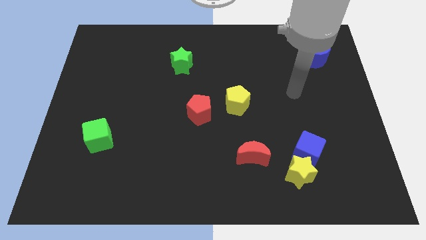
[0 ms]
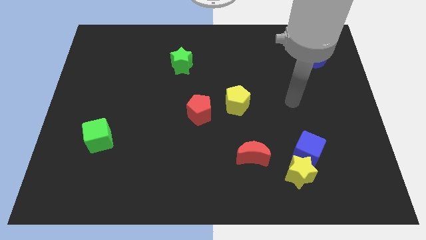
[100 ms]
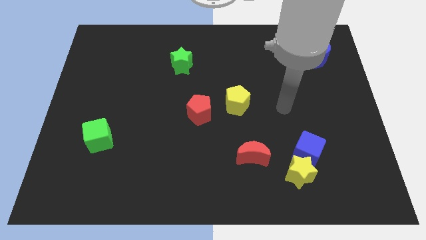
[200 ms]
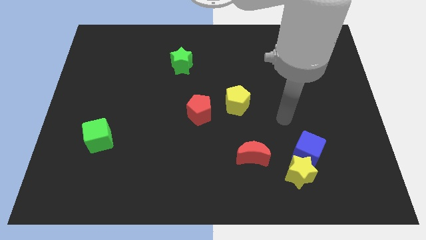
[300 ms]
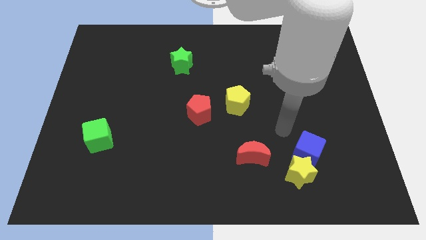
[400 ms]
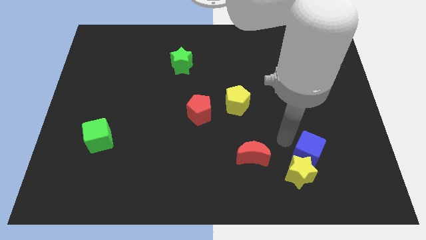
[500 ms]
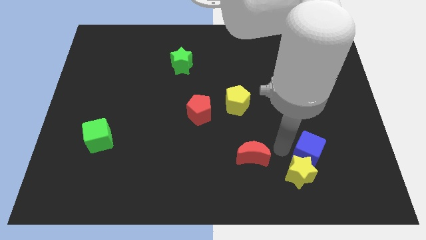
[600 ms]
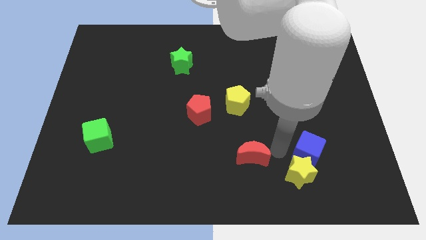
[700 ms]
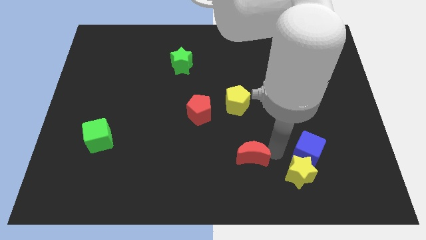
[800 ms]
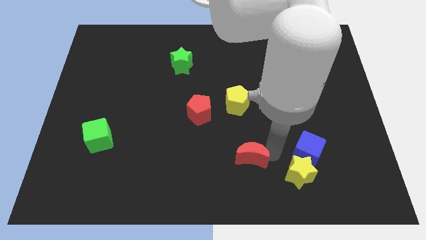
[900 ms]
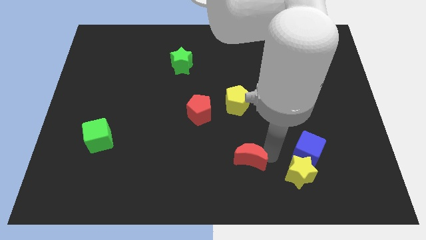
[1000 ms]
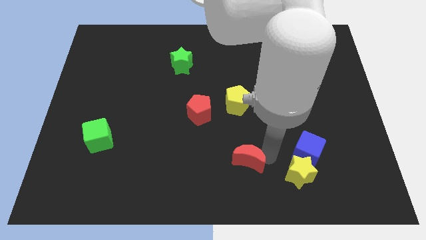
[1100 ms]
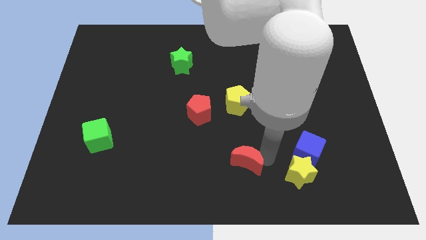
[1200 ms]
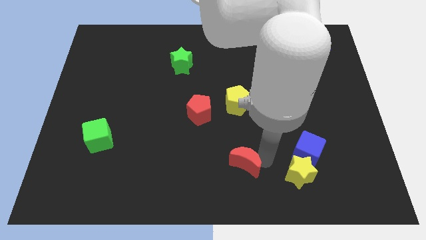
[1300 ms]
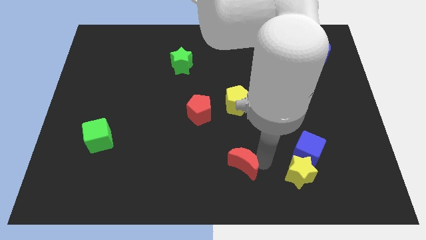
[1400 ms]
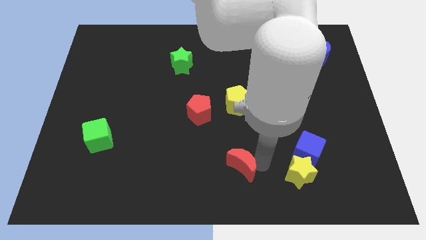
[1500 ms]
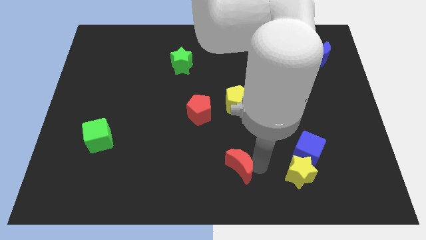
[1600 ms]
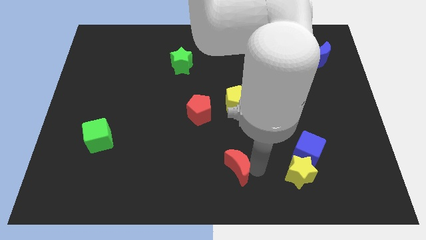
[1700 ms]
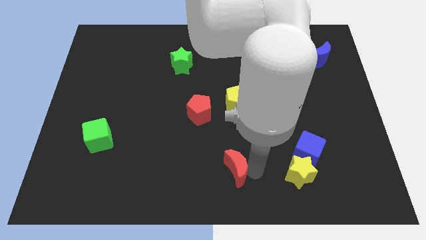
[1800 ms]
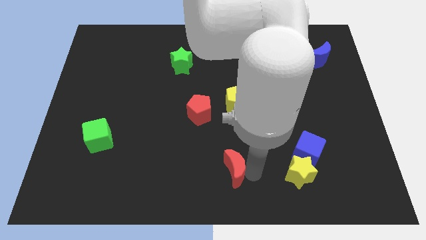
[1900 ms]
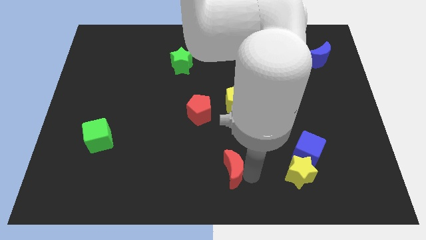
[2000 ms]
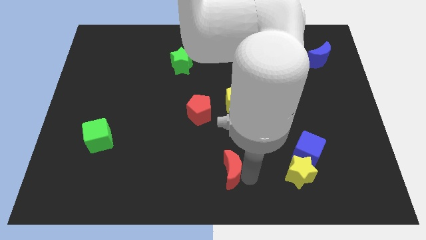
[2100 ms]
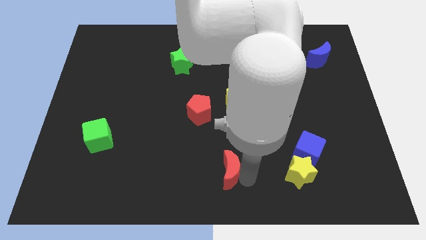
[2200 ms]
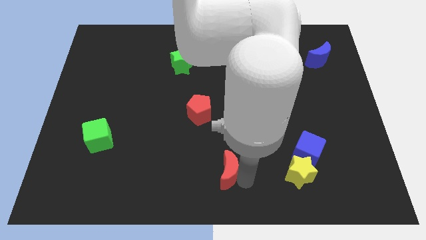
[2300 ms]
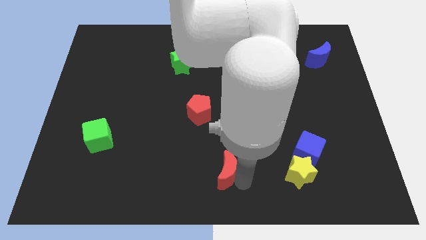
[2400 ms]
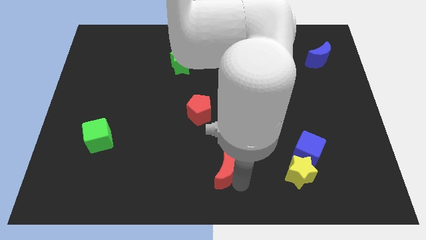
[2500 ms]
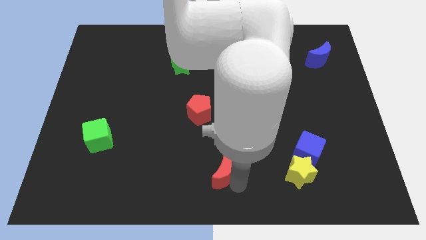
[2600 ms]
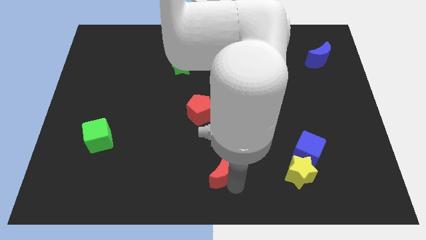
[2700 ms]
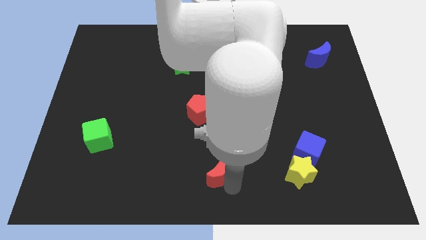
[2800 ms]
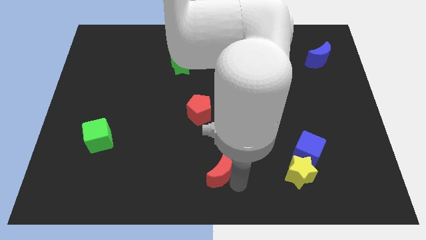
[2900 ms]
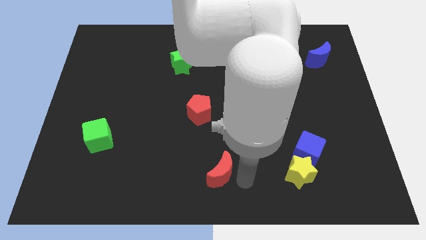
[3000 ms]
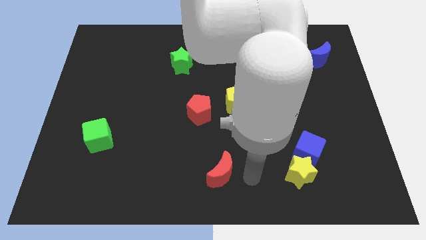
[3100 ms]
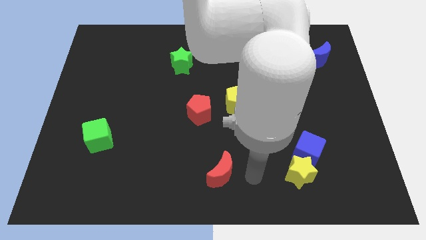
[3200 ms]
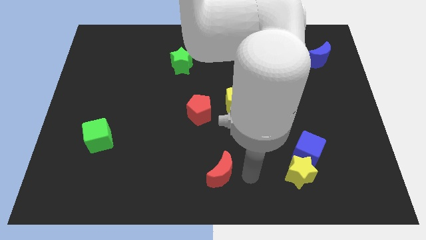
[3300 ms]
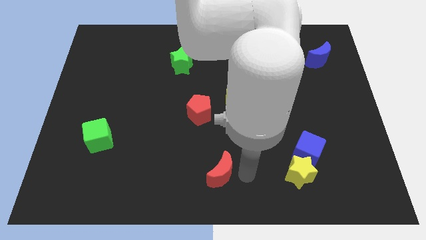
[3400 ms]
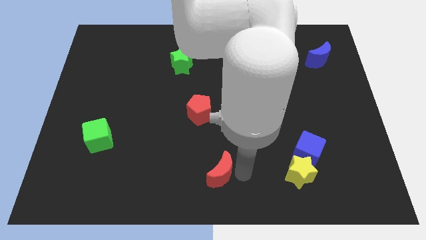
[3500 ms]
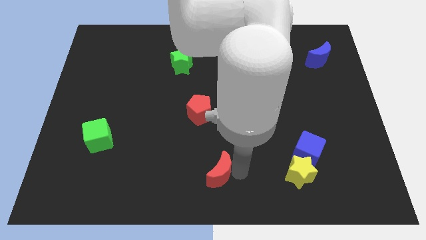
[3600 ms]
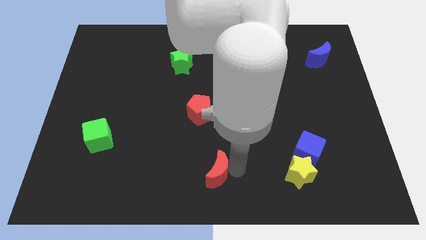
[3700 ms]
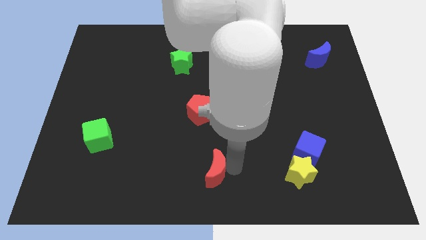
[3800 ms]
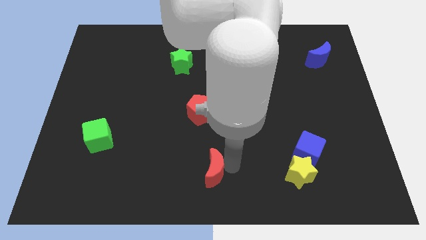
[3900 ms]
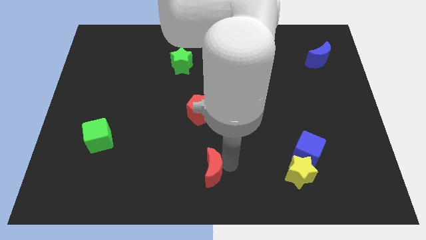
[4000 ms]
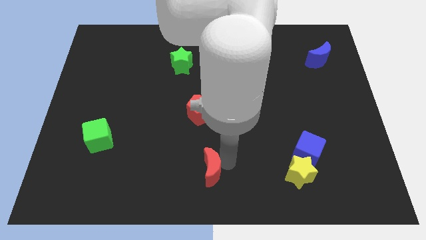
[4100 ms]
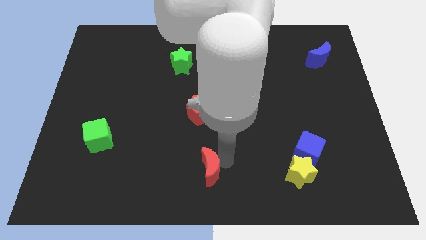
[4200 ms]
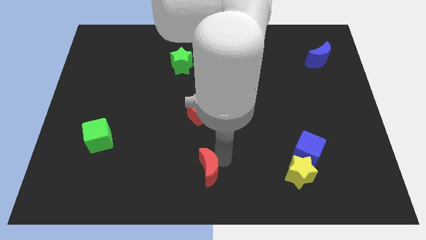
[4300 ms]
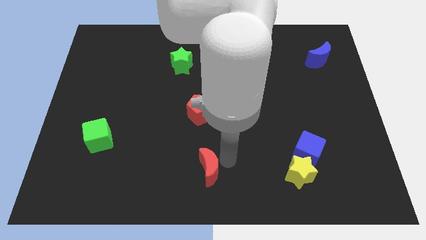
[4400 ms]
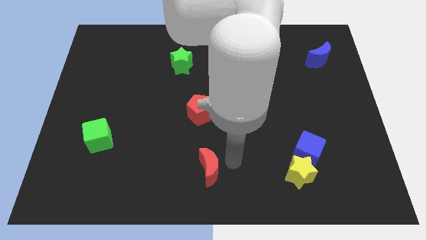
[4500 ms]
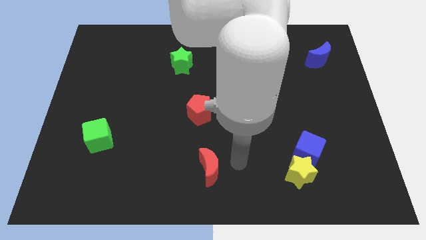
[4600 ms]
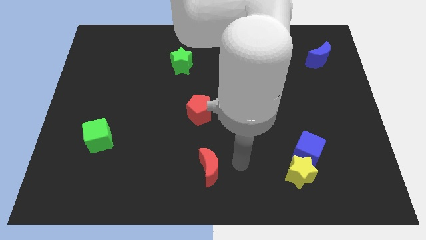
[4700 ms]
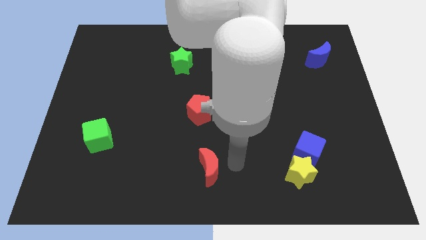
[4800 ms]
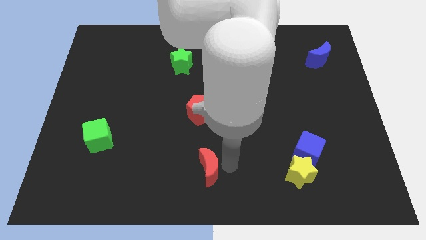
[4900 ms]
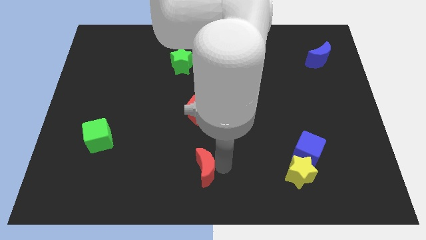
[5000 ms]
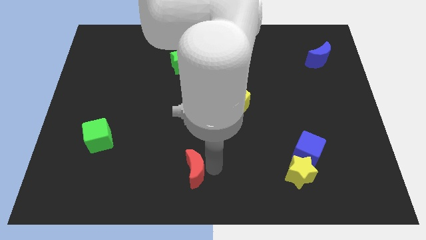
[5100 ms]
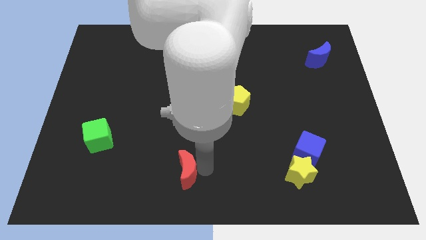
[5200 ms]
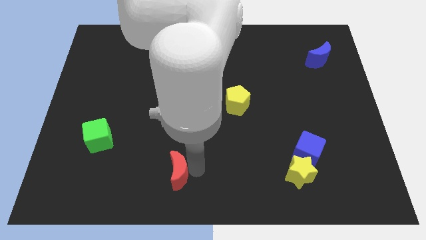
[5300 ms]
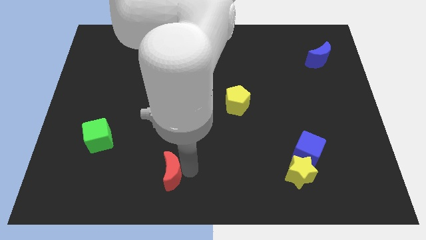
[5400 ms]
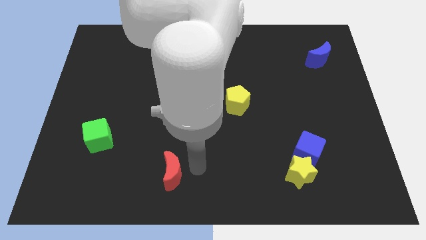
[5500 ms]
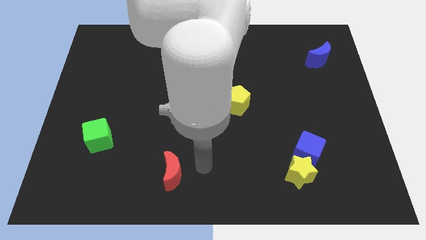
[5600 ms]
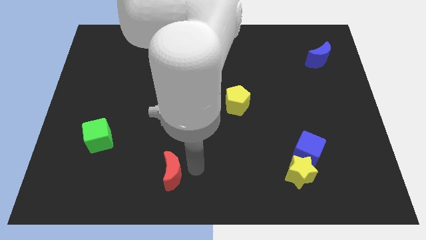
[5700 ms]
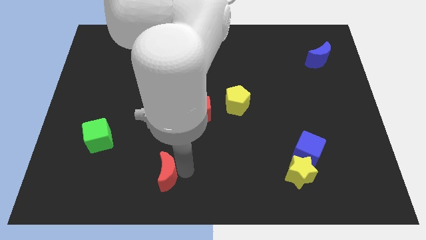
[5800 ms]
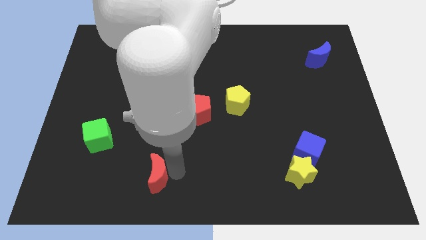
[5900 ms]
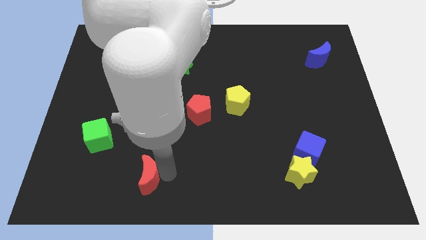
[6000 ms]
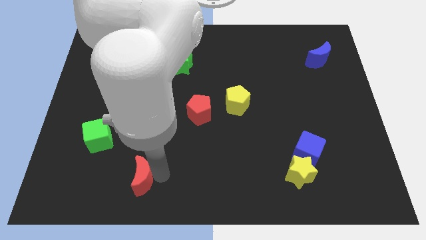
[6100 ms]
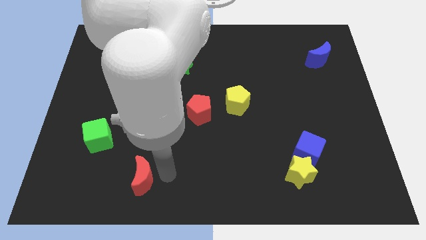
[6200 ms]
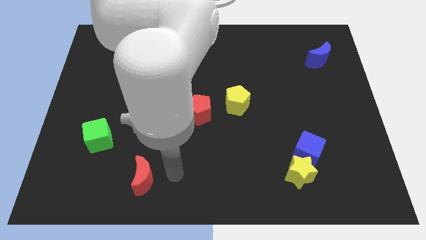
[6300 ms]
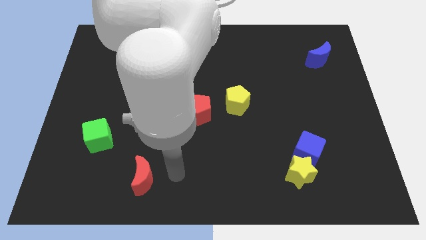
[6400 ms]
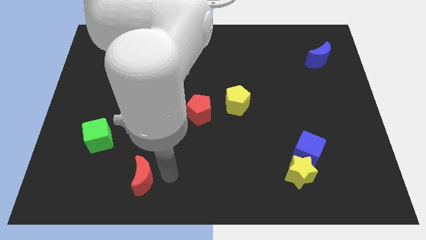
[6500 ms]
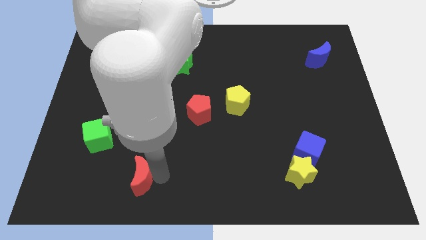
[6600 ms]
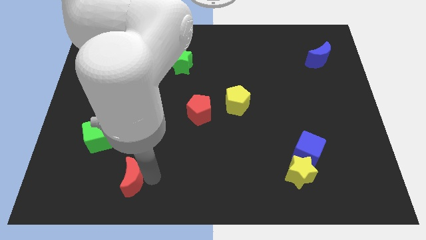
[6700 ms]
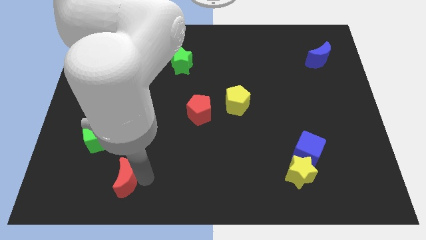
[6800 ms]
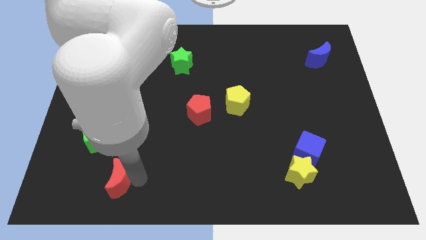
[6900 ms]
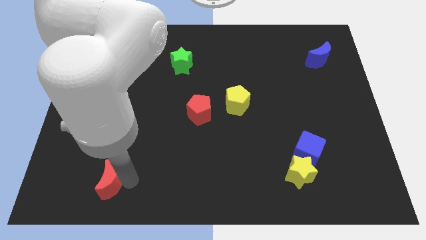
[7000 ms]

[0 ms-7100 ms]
slide the red moon to the bottom of the green cube
